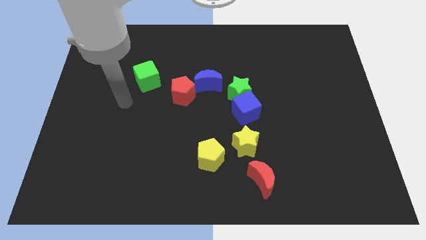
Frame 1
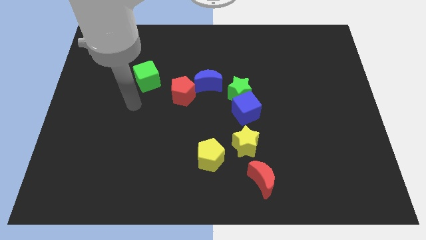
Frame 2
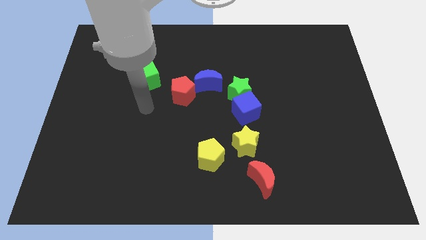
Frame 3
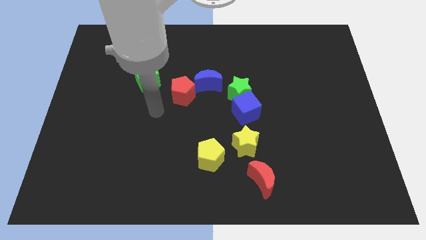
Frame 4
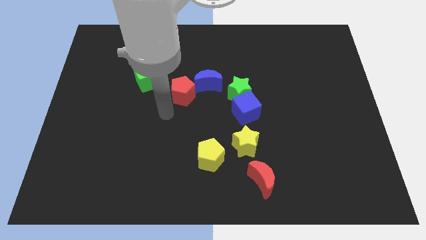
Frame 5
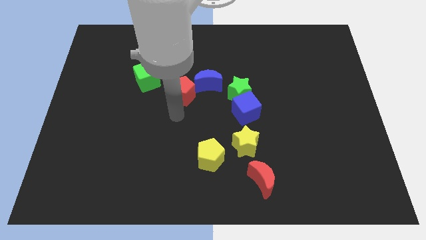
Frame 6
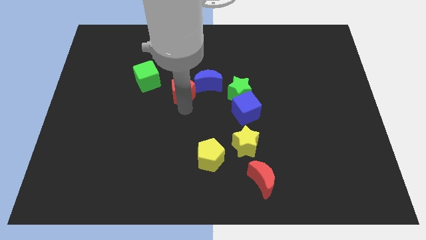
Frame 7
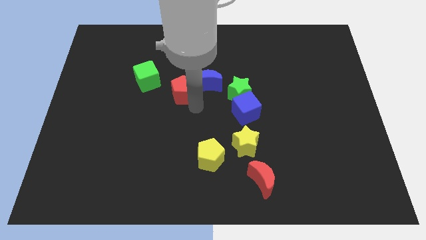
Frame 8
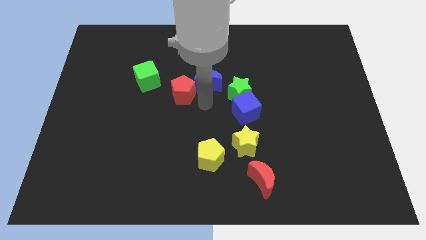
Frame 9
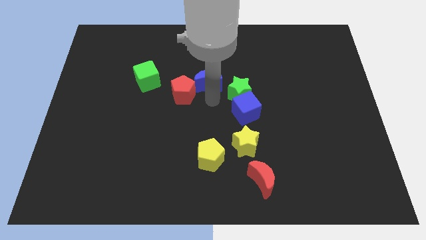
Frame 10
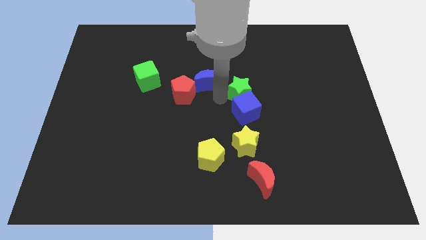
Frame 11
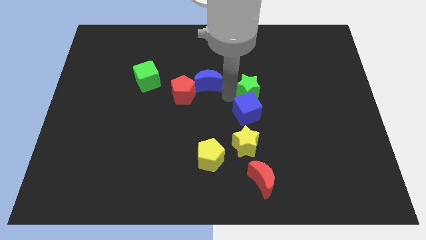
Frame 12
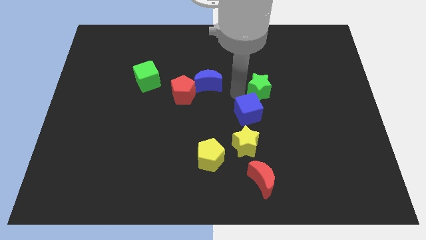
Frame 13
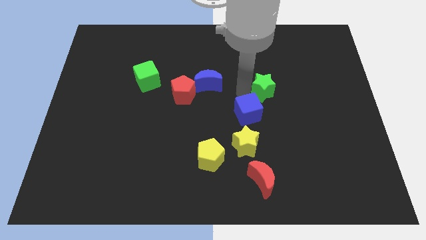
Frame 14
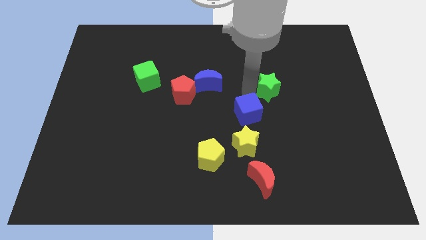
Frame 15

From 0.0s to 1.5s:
separate the green star from the blue cube and blue moon

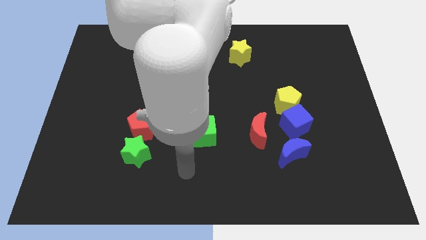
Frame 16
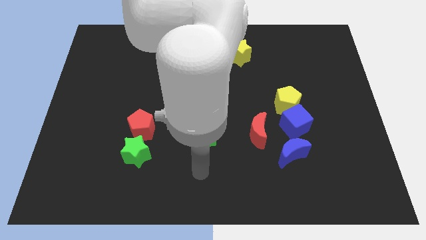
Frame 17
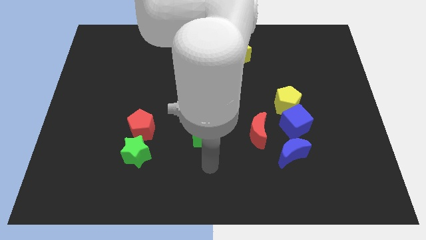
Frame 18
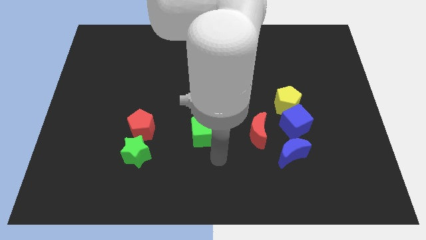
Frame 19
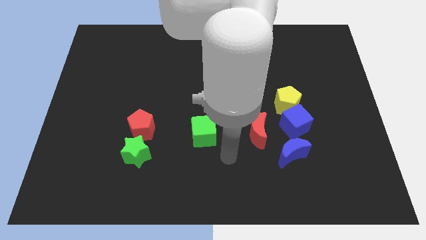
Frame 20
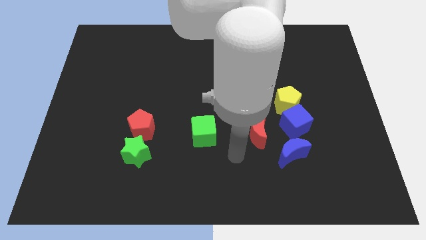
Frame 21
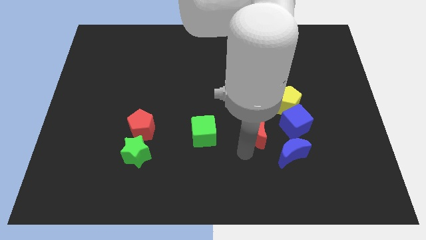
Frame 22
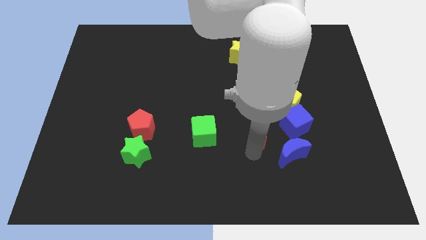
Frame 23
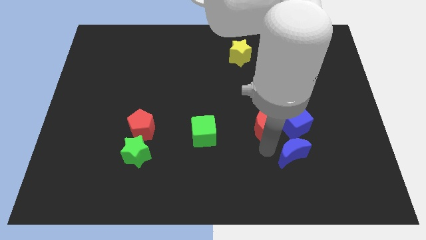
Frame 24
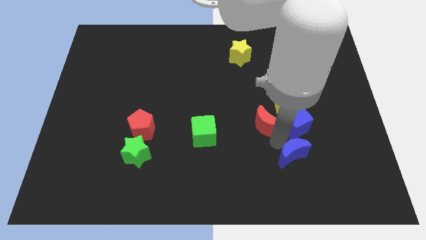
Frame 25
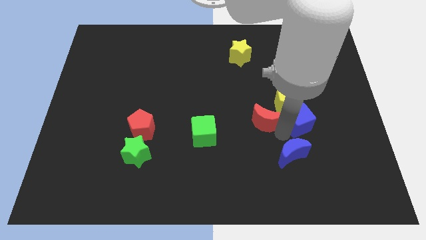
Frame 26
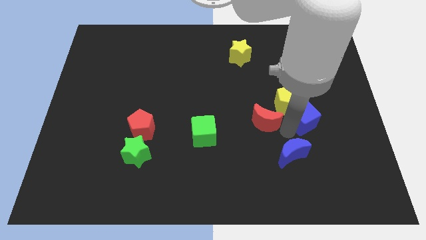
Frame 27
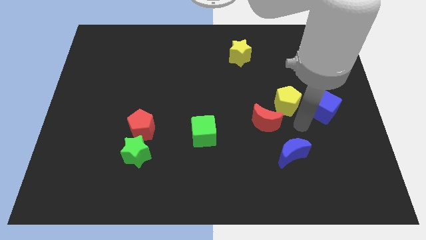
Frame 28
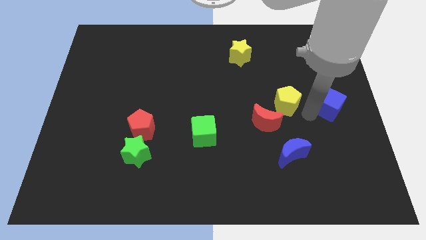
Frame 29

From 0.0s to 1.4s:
move the yellow pentagon away from the blue cube

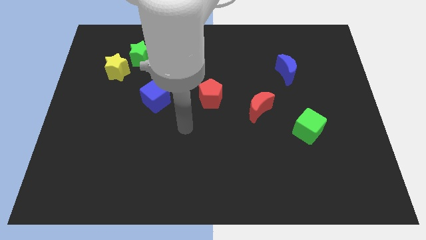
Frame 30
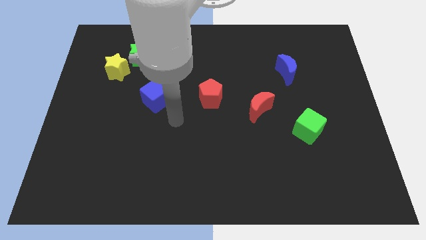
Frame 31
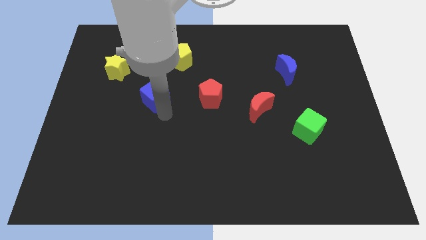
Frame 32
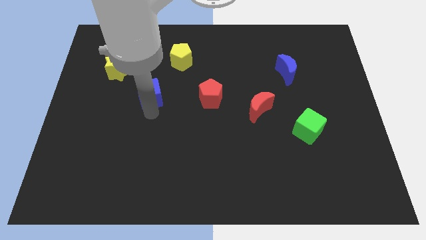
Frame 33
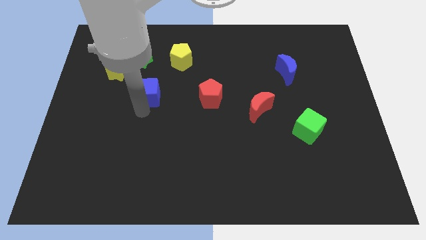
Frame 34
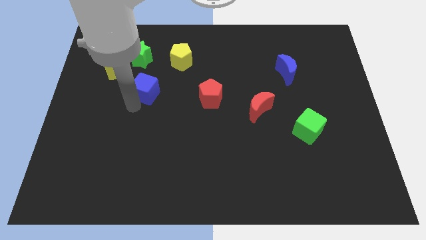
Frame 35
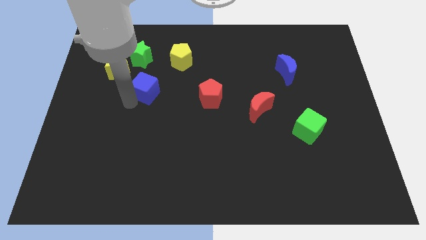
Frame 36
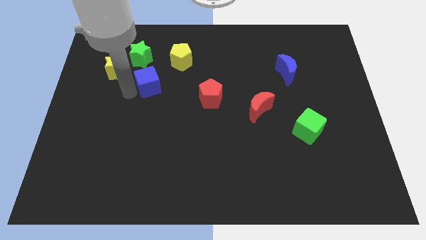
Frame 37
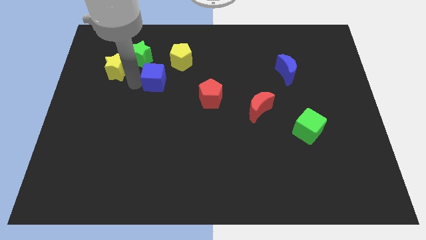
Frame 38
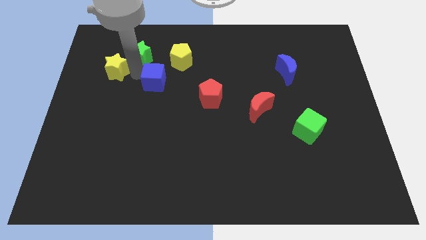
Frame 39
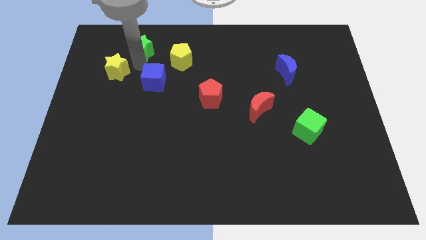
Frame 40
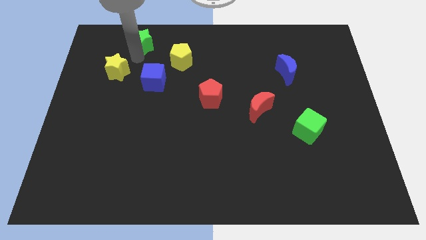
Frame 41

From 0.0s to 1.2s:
pull the yellow star apart from the green star

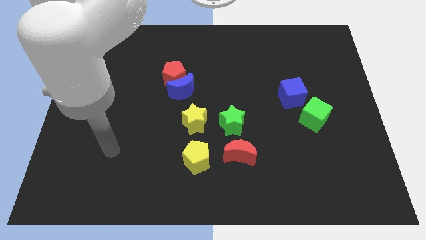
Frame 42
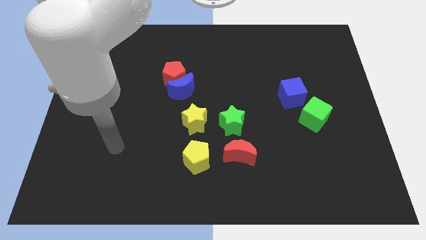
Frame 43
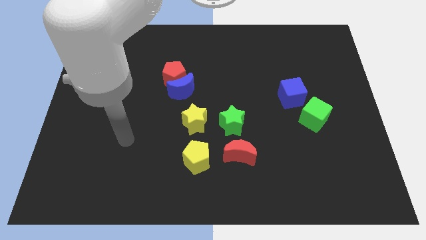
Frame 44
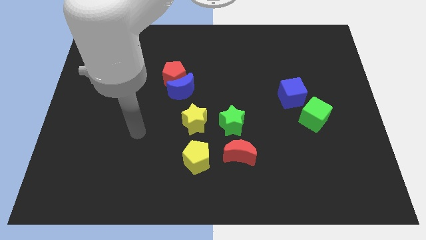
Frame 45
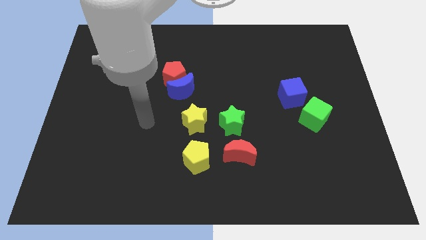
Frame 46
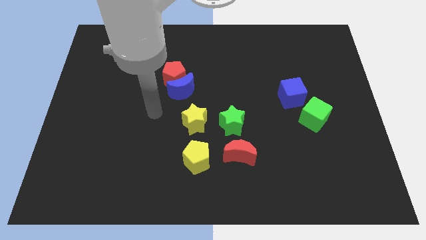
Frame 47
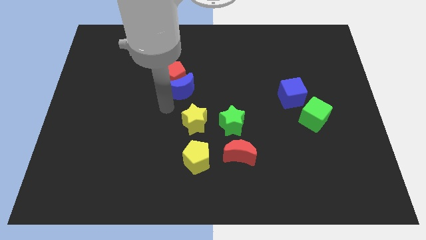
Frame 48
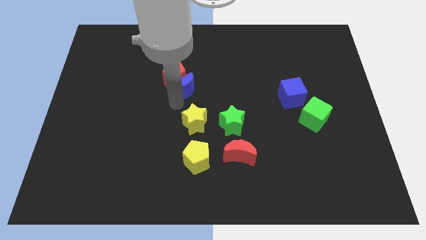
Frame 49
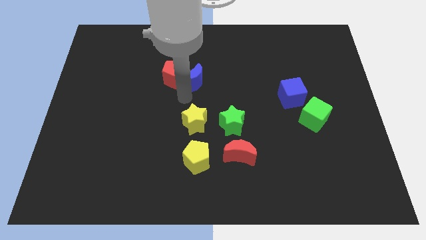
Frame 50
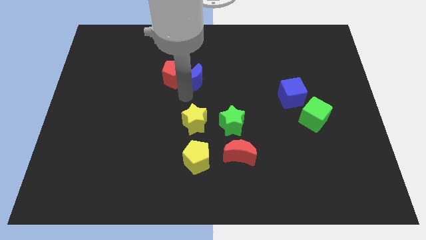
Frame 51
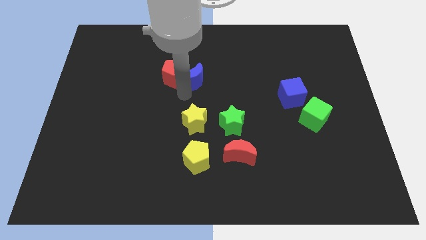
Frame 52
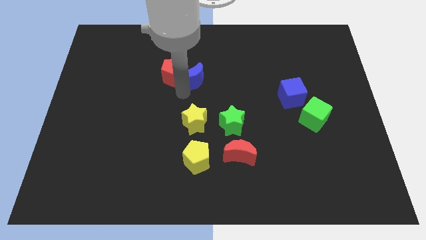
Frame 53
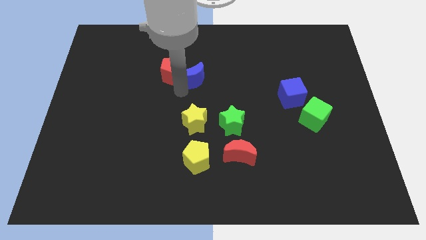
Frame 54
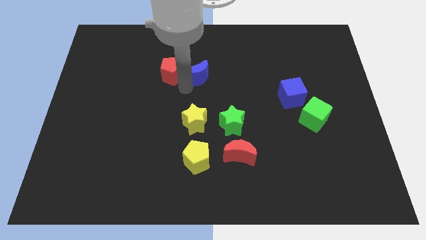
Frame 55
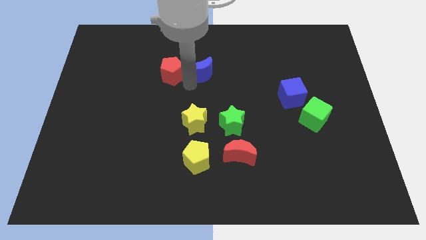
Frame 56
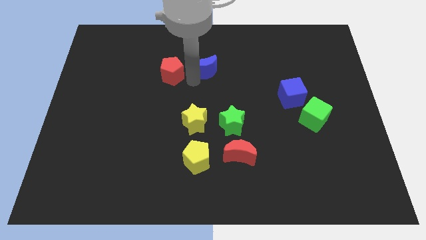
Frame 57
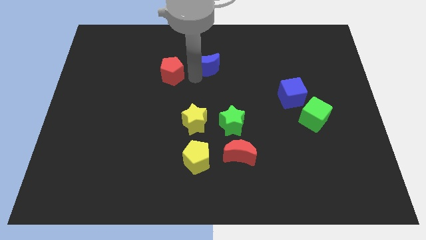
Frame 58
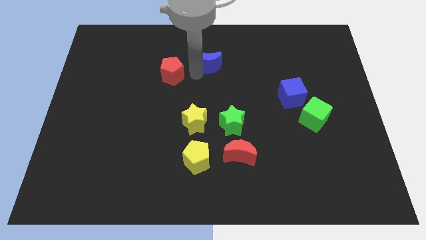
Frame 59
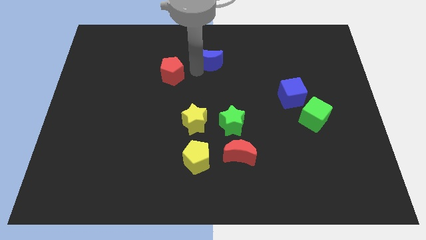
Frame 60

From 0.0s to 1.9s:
move the red pentagon away from the blue moon

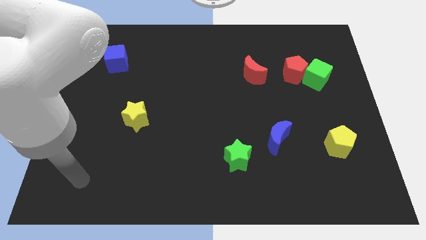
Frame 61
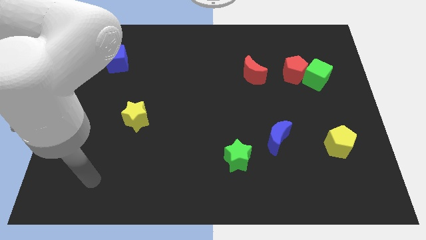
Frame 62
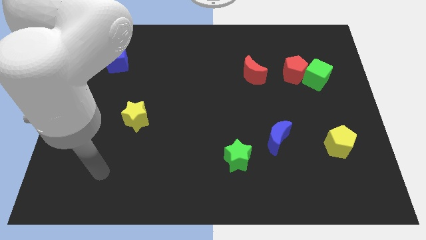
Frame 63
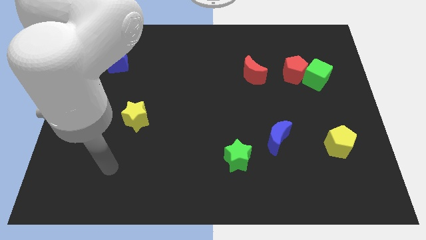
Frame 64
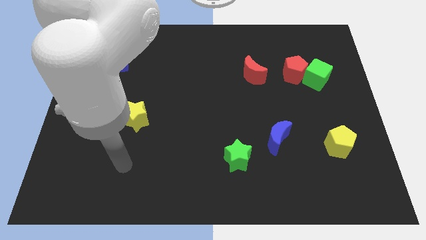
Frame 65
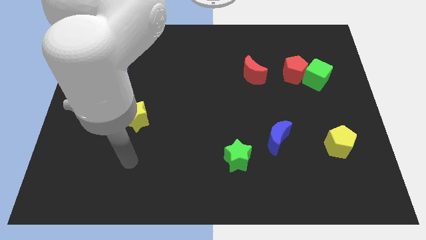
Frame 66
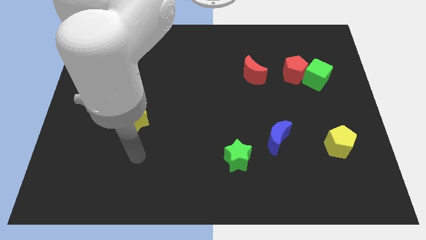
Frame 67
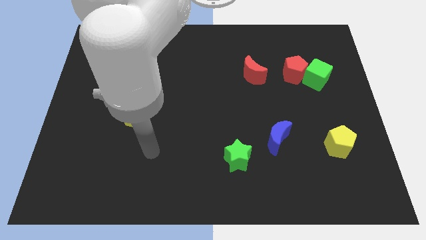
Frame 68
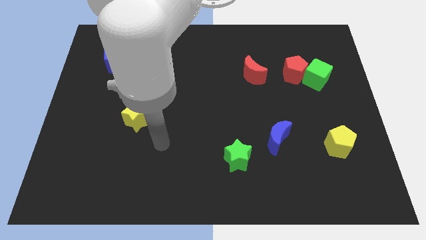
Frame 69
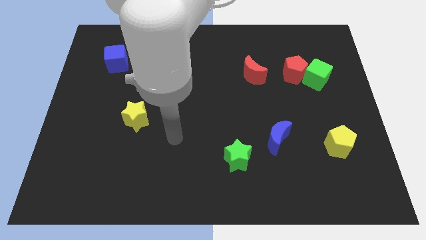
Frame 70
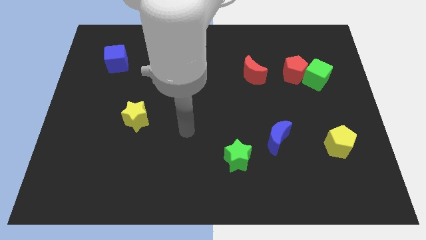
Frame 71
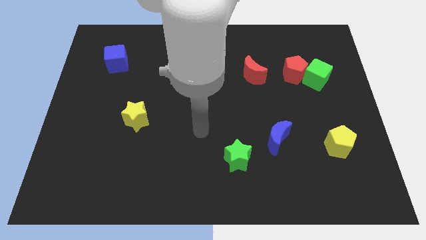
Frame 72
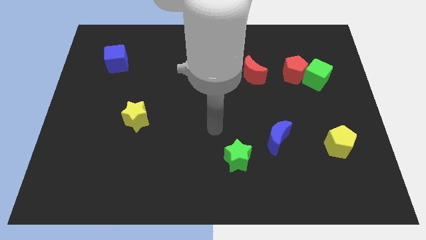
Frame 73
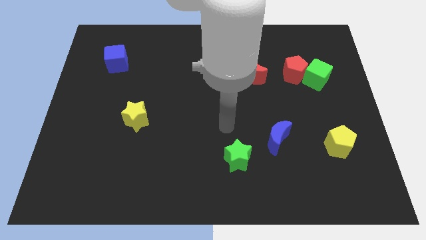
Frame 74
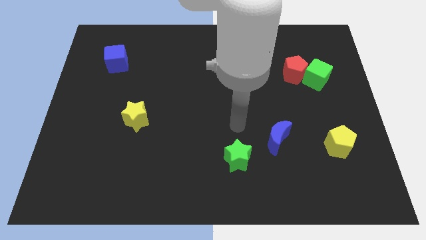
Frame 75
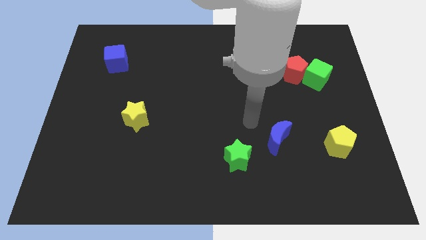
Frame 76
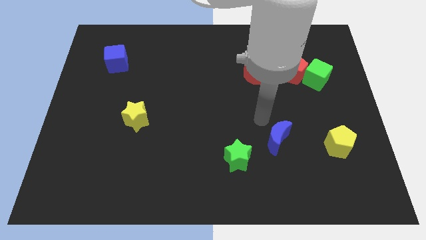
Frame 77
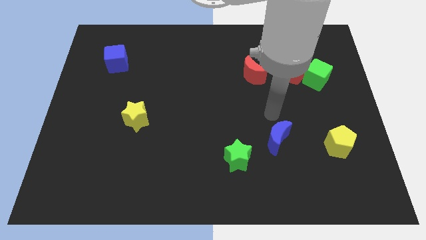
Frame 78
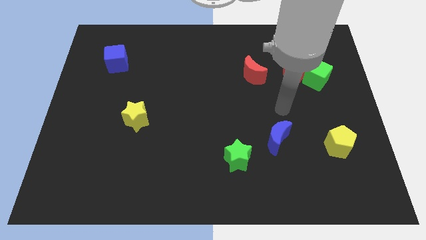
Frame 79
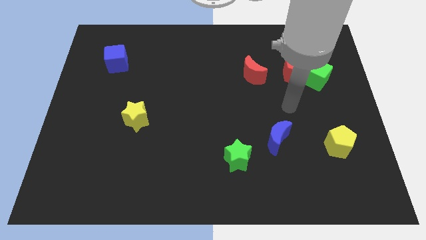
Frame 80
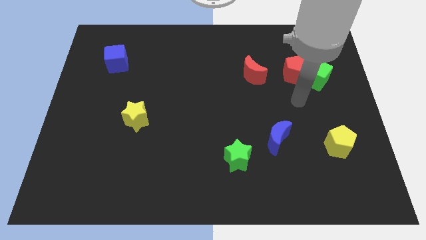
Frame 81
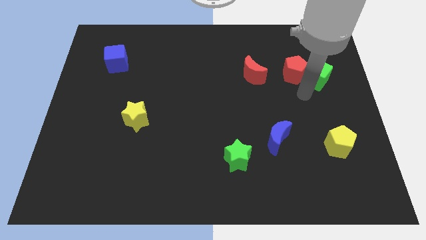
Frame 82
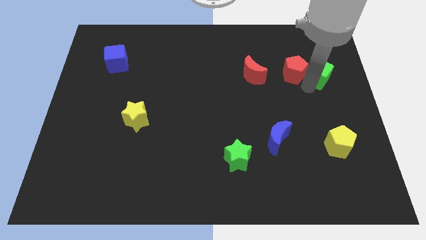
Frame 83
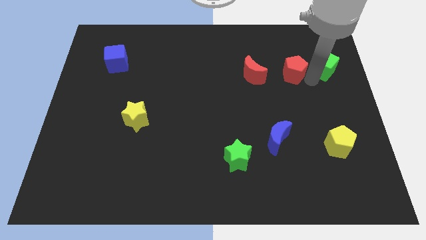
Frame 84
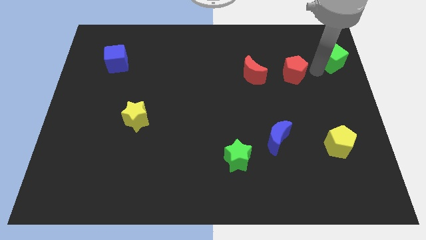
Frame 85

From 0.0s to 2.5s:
move the red pentagon away from the green cube

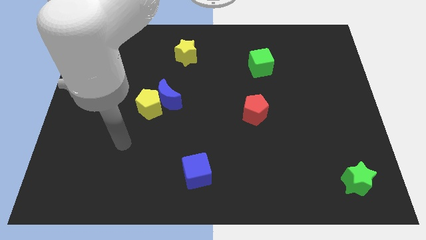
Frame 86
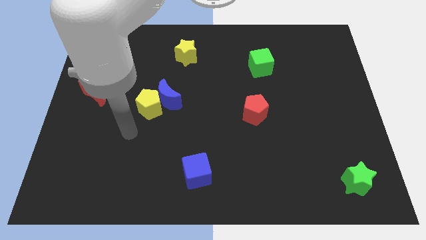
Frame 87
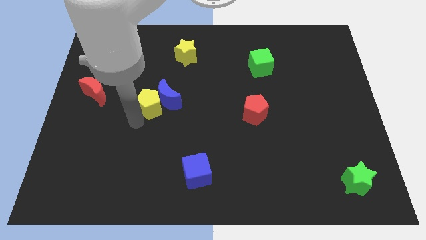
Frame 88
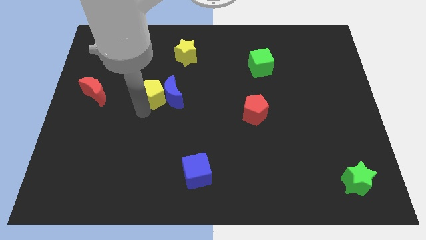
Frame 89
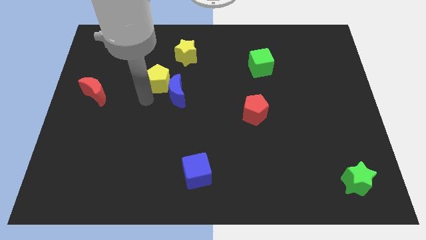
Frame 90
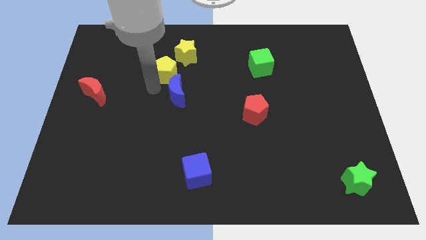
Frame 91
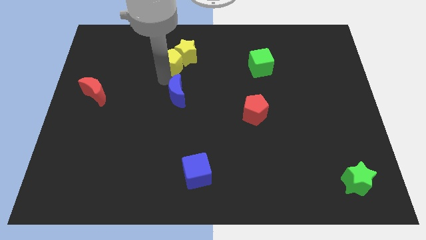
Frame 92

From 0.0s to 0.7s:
move the blue moon away from the yellow pentagon

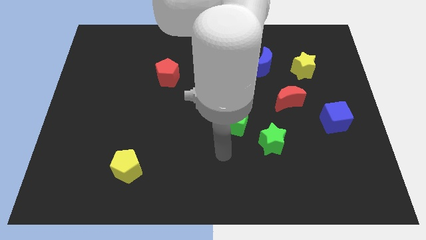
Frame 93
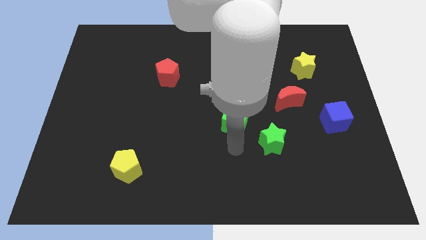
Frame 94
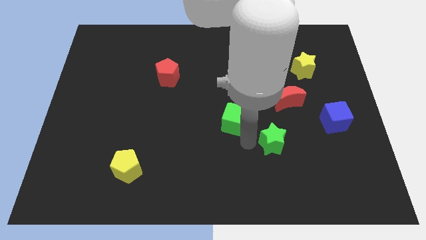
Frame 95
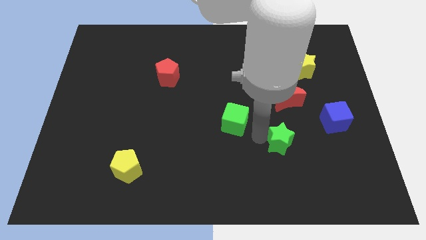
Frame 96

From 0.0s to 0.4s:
pull the green cube apart from the green star
